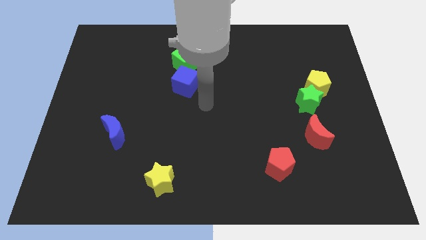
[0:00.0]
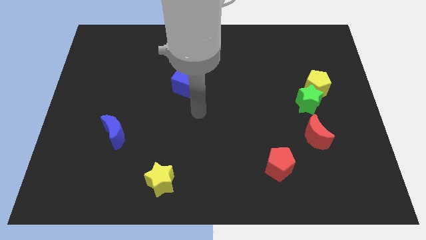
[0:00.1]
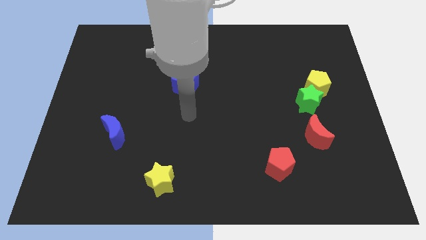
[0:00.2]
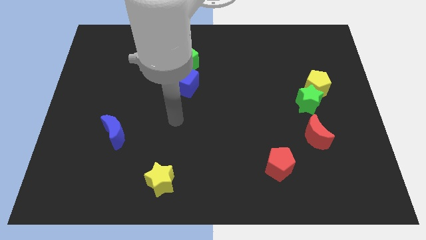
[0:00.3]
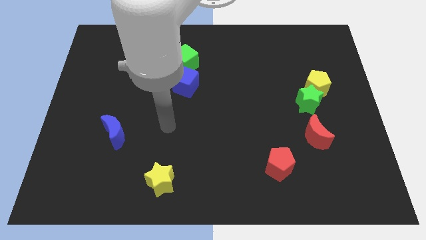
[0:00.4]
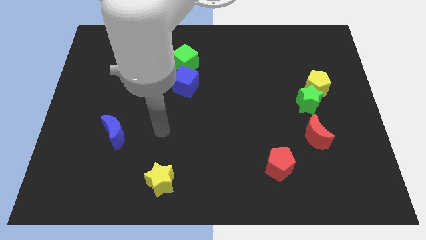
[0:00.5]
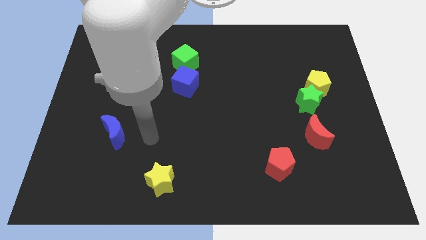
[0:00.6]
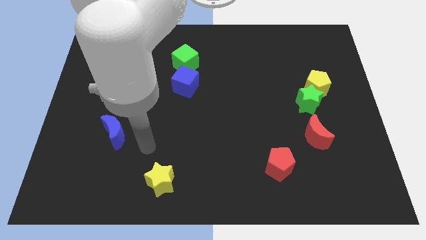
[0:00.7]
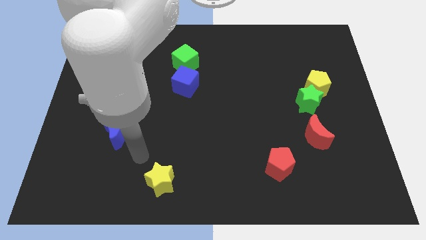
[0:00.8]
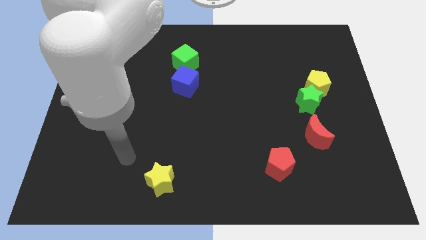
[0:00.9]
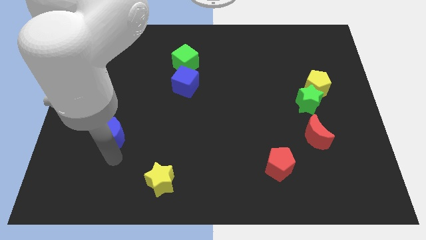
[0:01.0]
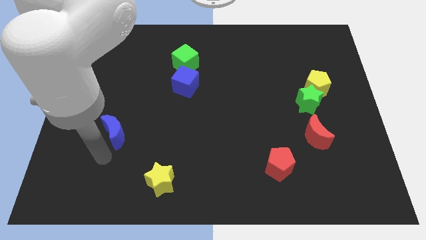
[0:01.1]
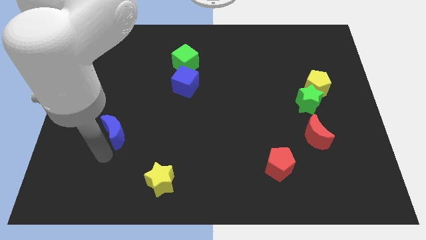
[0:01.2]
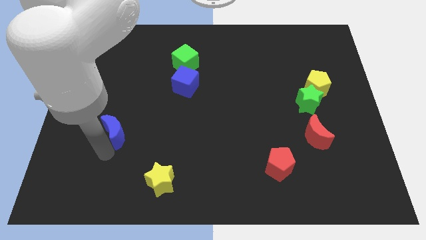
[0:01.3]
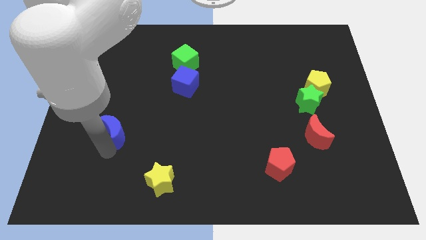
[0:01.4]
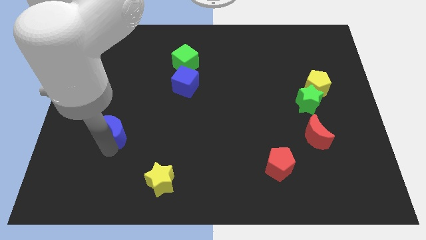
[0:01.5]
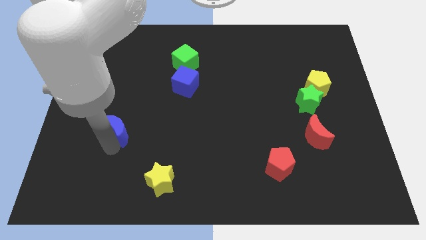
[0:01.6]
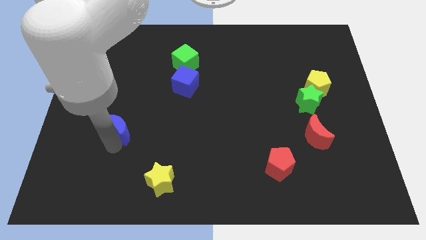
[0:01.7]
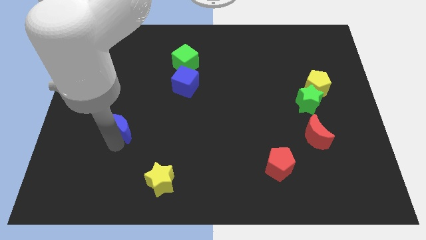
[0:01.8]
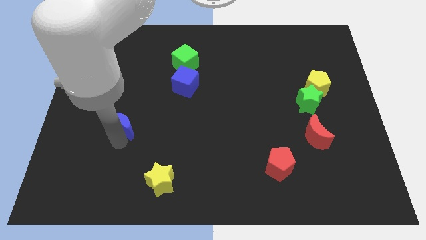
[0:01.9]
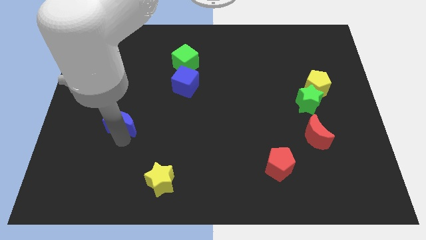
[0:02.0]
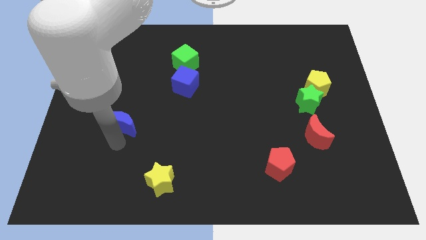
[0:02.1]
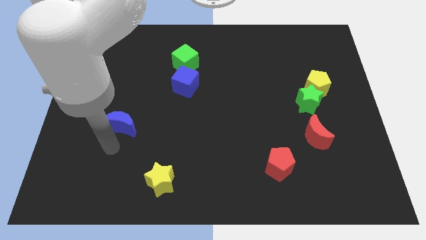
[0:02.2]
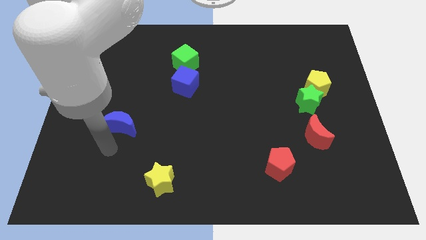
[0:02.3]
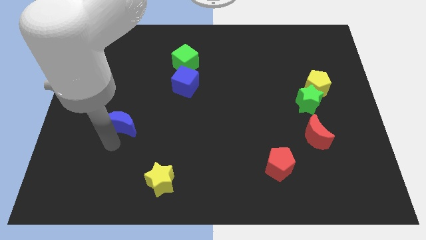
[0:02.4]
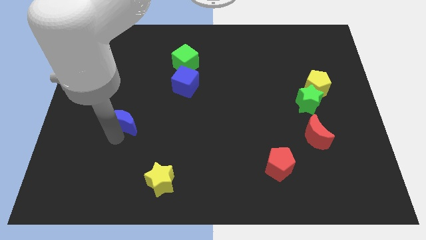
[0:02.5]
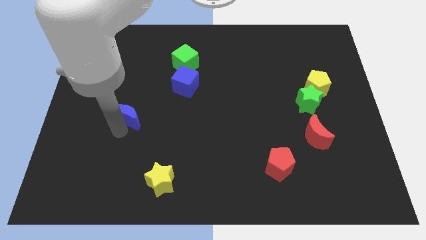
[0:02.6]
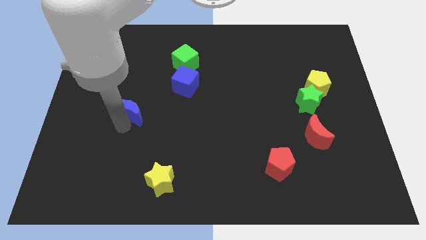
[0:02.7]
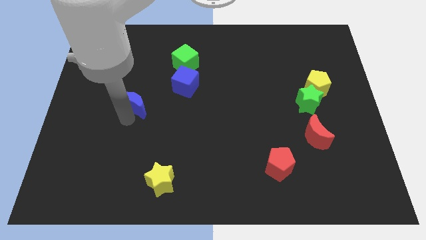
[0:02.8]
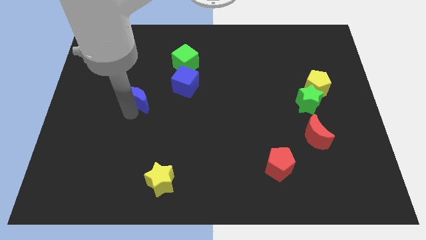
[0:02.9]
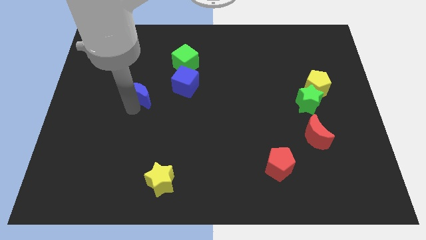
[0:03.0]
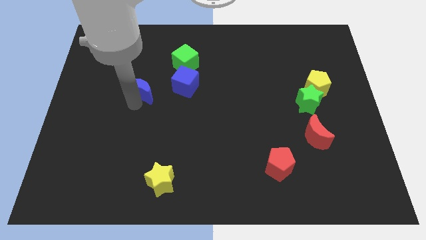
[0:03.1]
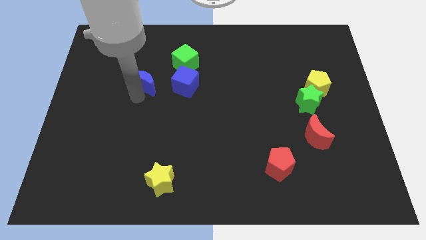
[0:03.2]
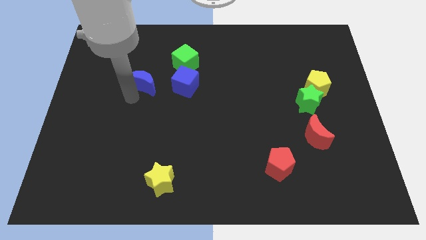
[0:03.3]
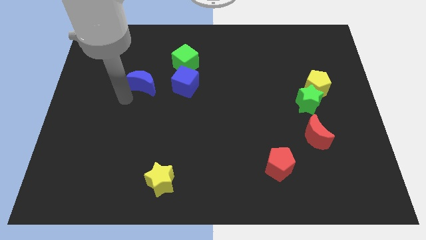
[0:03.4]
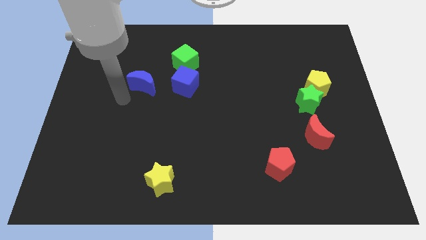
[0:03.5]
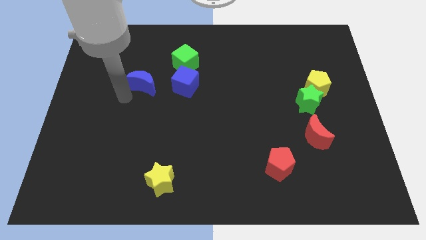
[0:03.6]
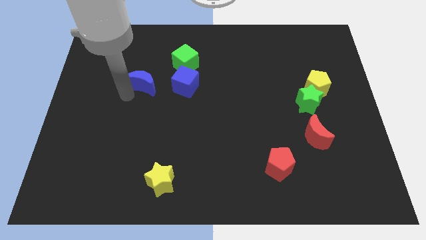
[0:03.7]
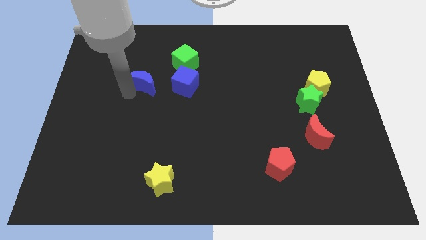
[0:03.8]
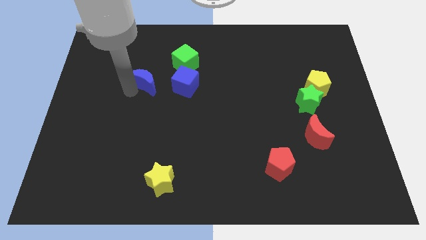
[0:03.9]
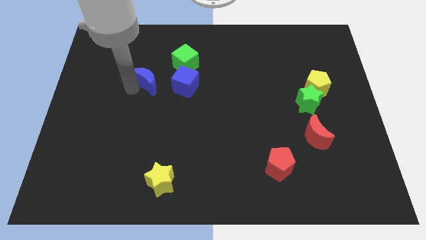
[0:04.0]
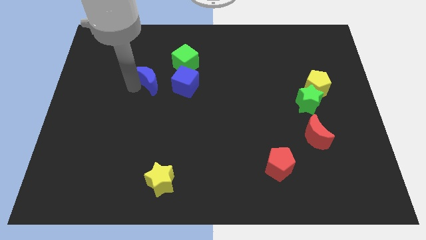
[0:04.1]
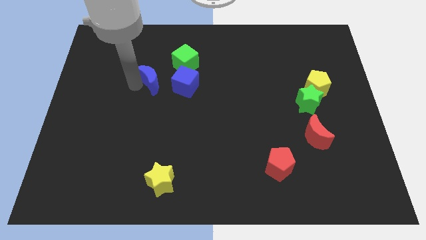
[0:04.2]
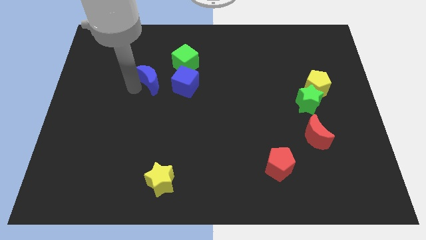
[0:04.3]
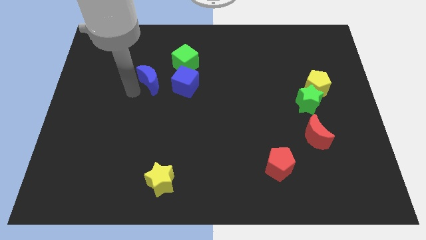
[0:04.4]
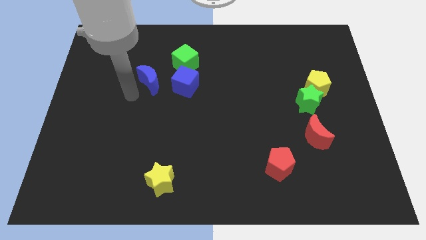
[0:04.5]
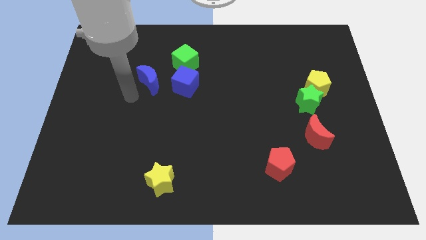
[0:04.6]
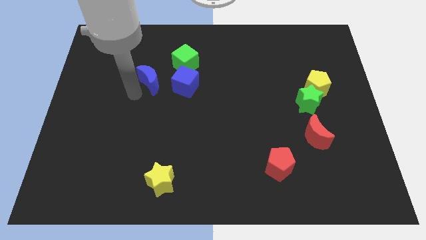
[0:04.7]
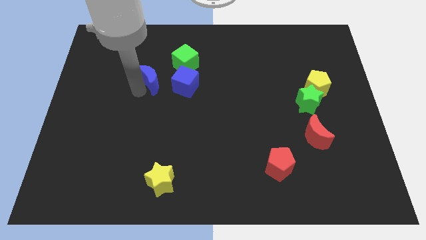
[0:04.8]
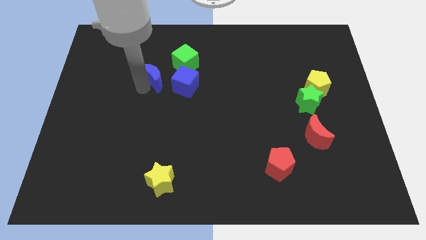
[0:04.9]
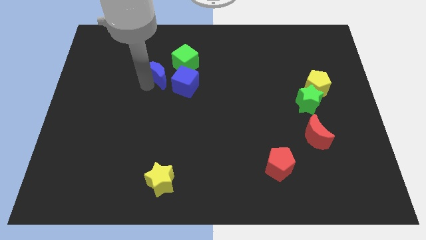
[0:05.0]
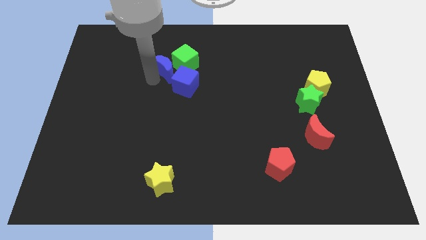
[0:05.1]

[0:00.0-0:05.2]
move the blue moon to the green cube

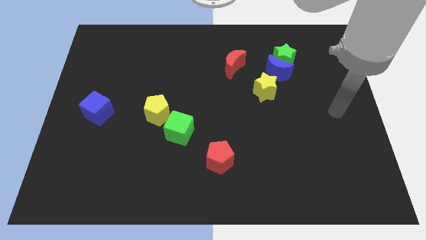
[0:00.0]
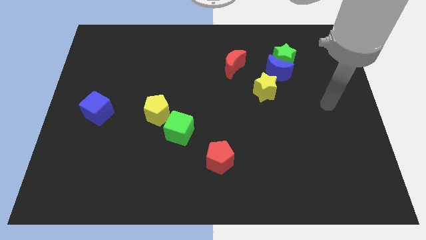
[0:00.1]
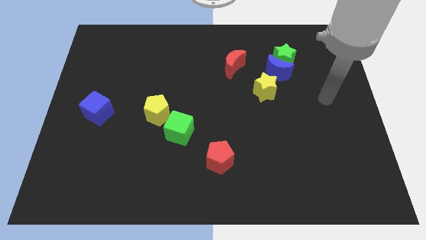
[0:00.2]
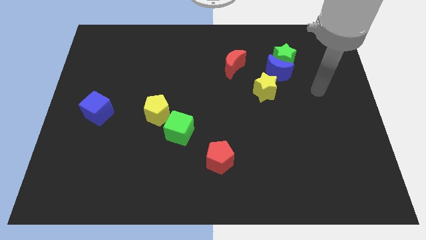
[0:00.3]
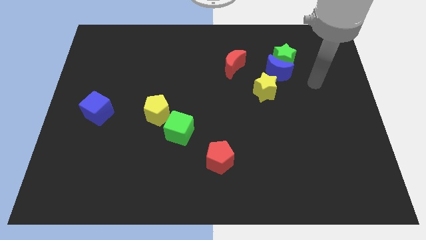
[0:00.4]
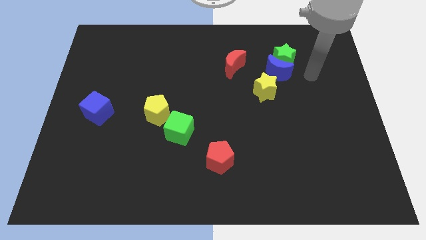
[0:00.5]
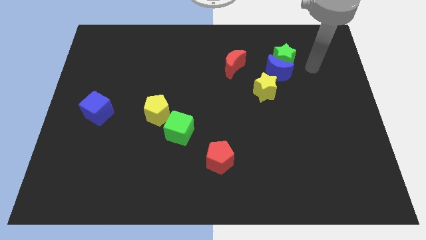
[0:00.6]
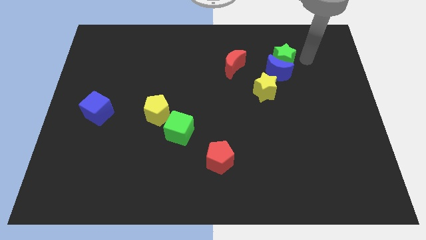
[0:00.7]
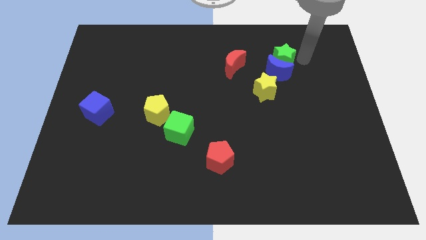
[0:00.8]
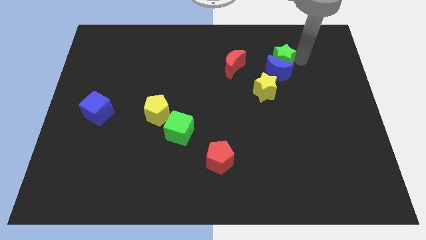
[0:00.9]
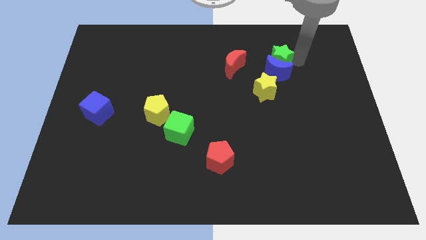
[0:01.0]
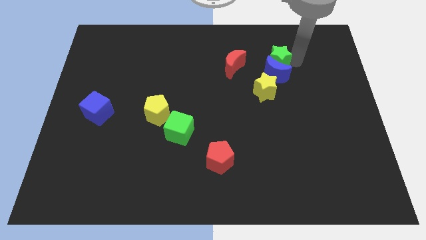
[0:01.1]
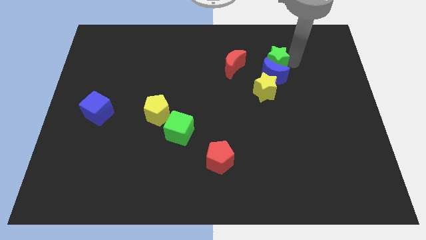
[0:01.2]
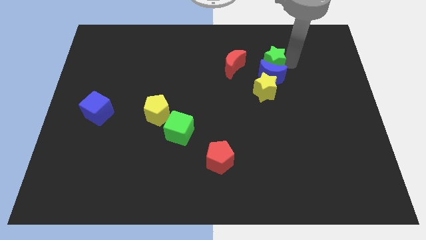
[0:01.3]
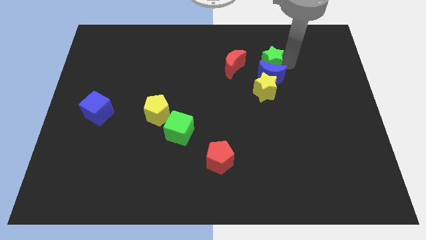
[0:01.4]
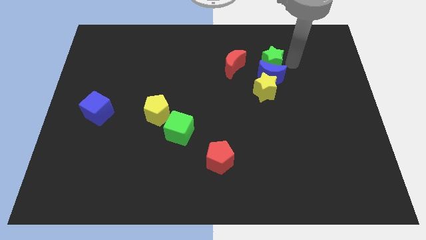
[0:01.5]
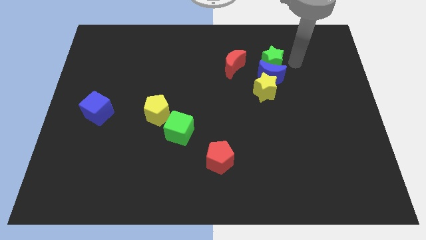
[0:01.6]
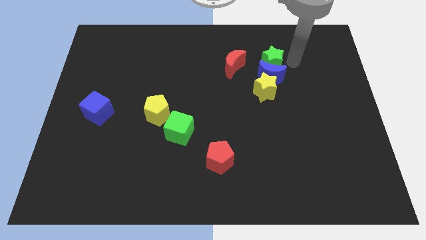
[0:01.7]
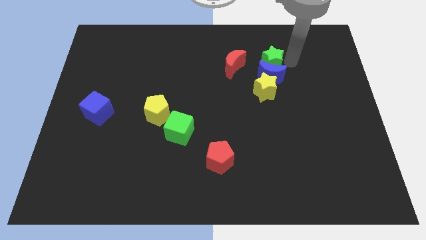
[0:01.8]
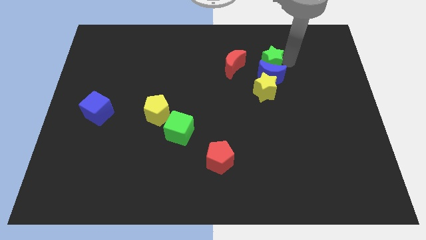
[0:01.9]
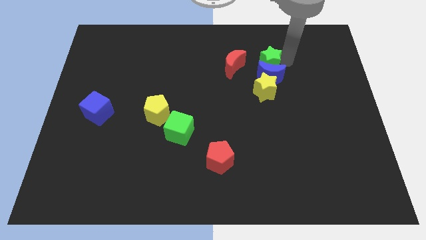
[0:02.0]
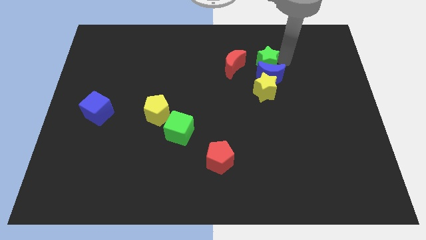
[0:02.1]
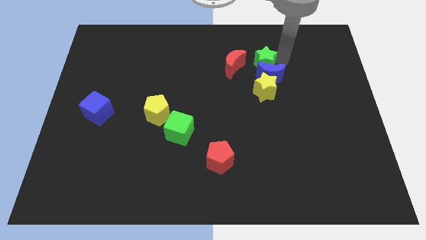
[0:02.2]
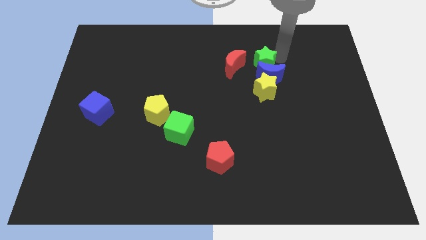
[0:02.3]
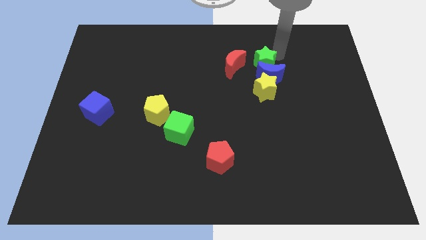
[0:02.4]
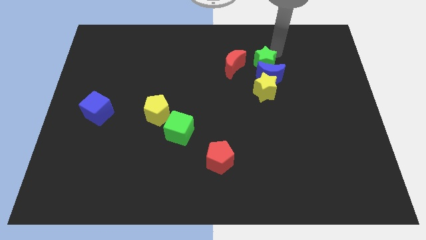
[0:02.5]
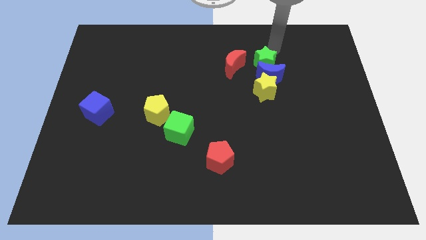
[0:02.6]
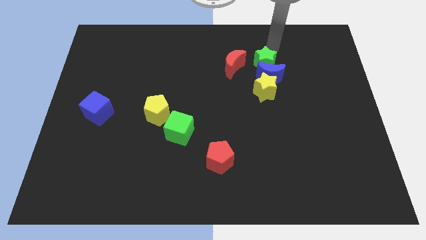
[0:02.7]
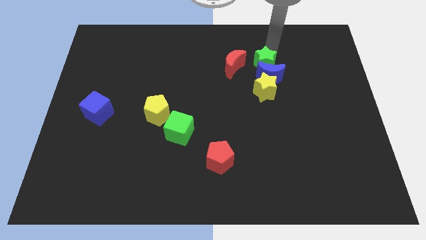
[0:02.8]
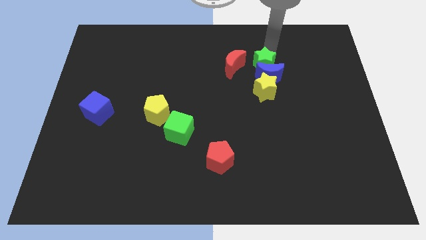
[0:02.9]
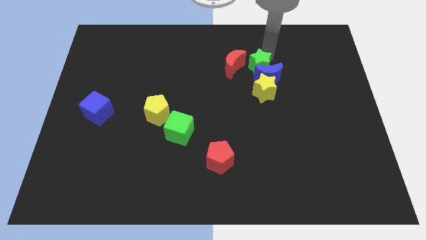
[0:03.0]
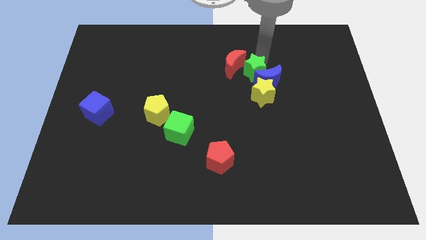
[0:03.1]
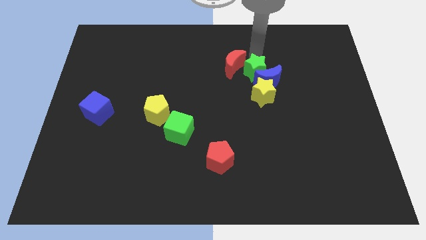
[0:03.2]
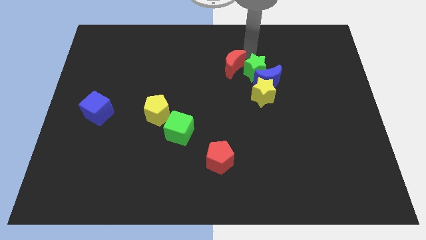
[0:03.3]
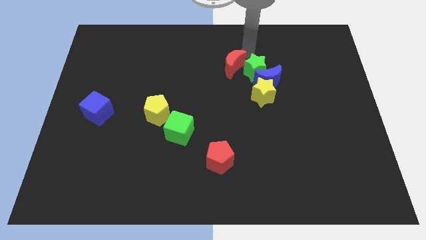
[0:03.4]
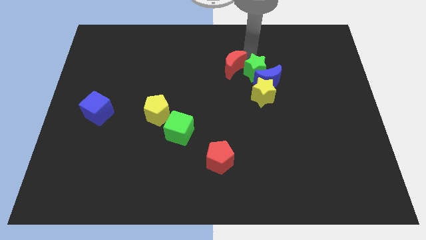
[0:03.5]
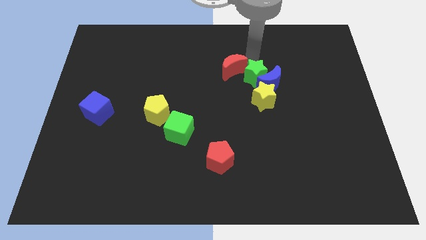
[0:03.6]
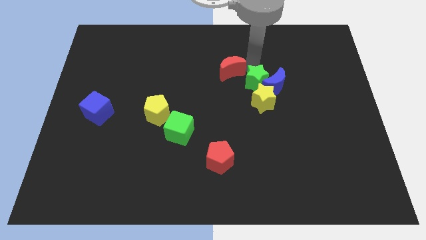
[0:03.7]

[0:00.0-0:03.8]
push the green star next to the yellow star
